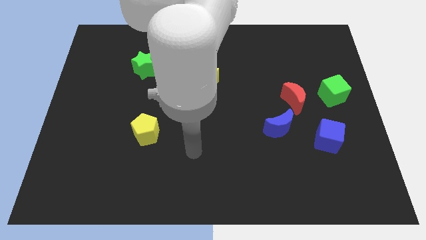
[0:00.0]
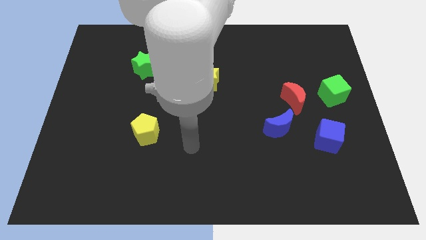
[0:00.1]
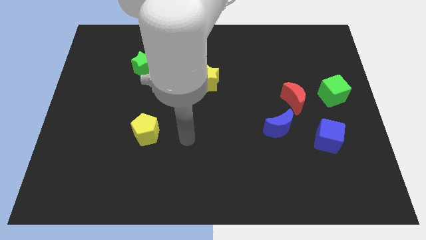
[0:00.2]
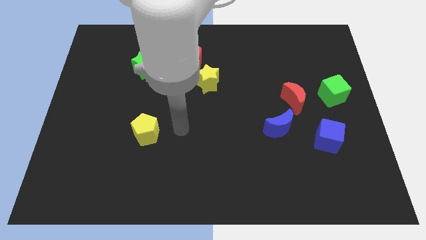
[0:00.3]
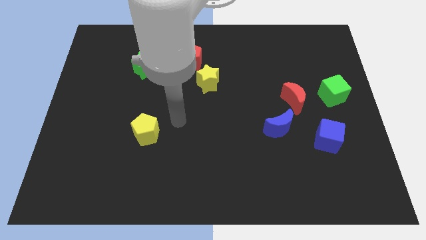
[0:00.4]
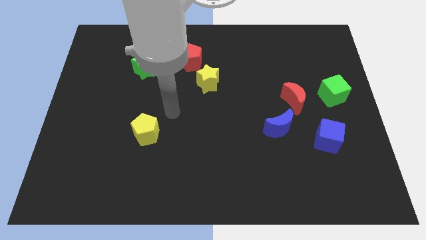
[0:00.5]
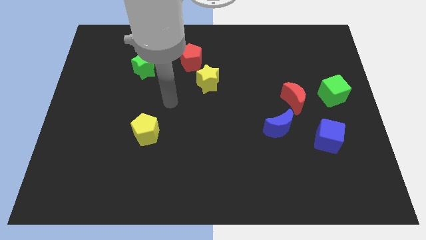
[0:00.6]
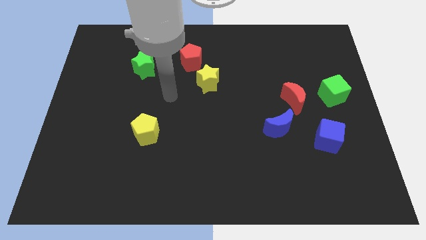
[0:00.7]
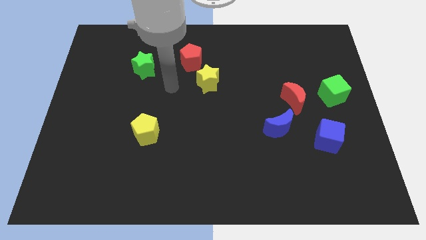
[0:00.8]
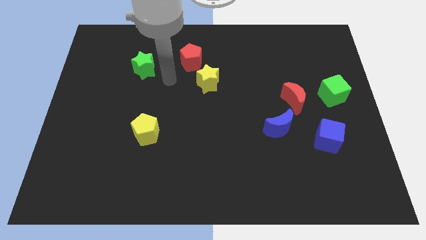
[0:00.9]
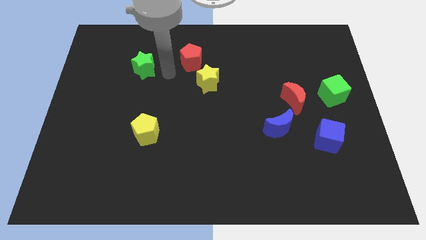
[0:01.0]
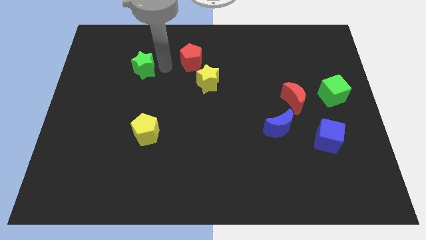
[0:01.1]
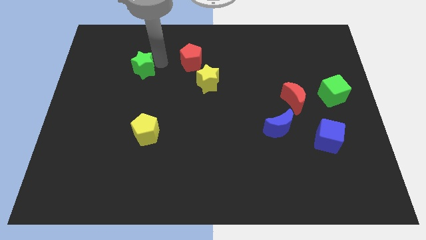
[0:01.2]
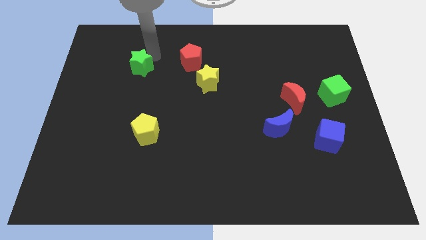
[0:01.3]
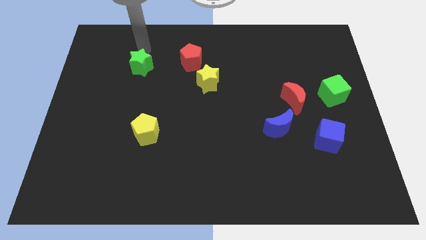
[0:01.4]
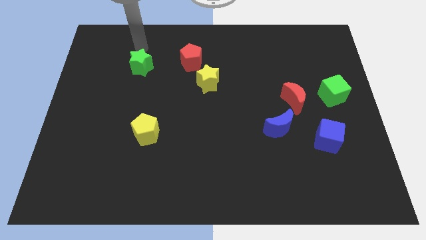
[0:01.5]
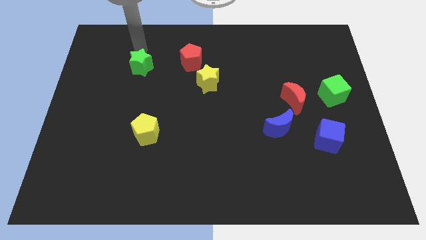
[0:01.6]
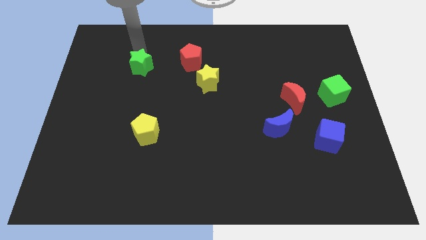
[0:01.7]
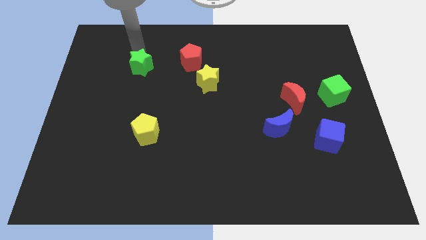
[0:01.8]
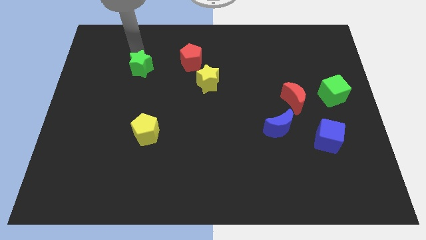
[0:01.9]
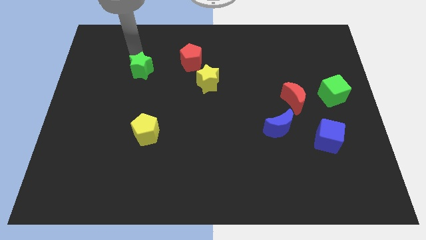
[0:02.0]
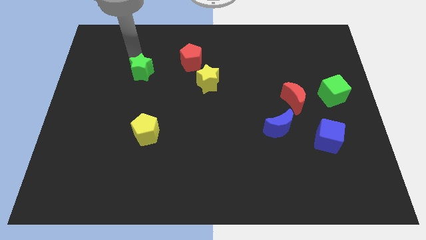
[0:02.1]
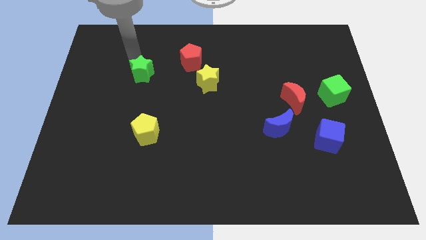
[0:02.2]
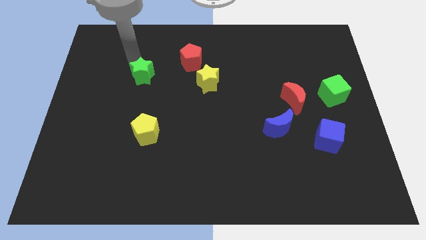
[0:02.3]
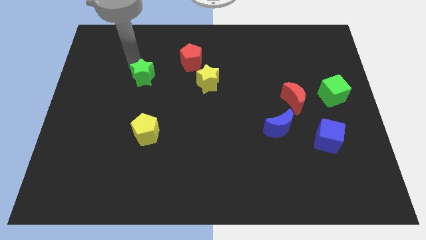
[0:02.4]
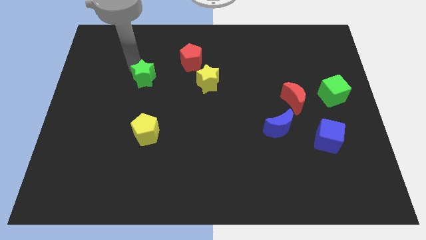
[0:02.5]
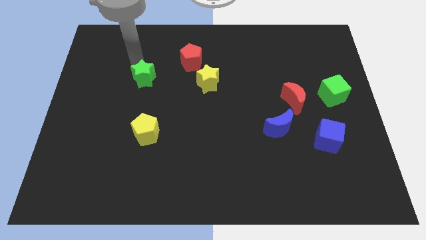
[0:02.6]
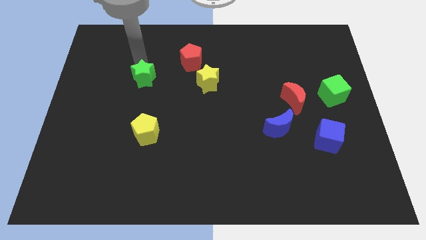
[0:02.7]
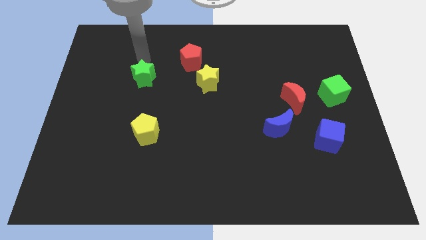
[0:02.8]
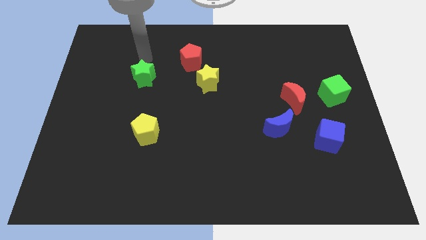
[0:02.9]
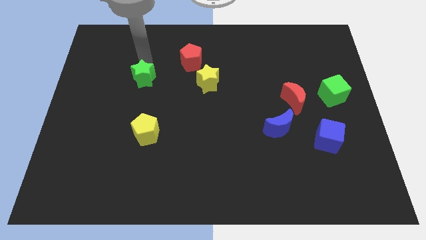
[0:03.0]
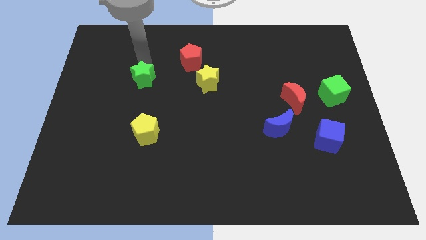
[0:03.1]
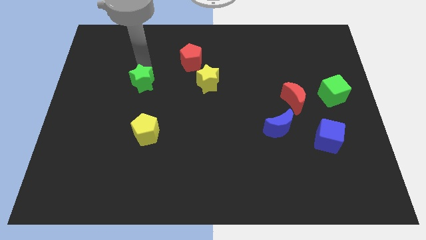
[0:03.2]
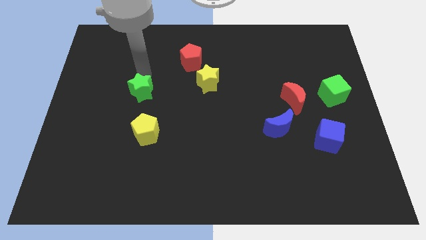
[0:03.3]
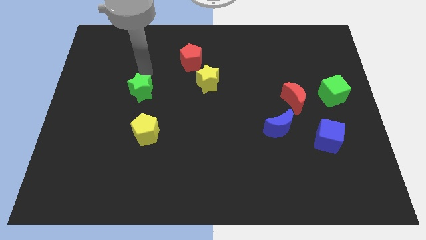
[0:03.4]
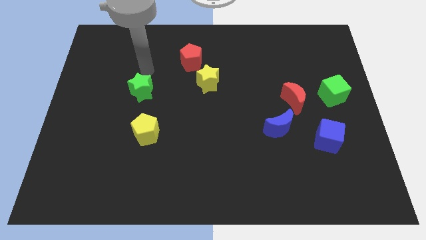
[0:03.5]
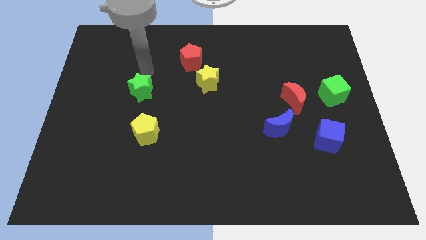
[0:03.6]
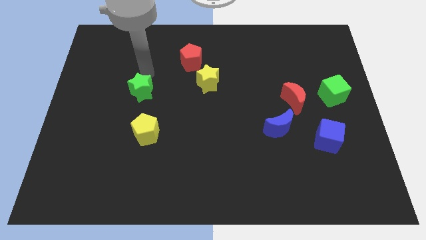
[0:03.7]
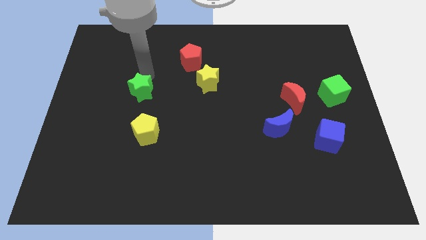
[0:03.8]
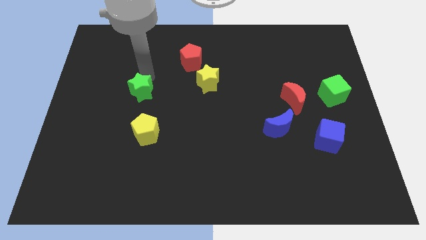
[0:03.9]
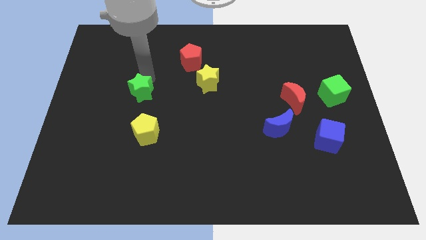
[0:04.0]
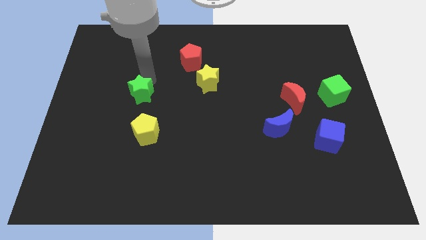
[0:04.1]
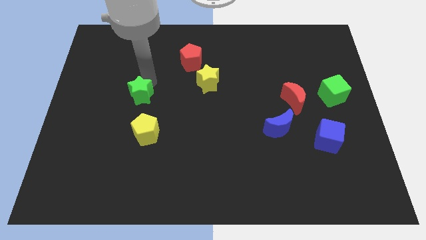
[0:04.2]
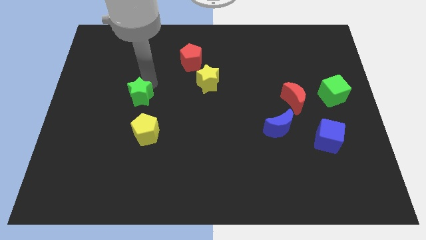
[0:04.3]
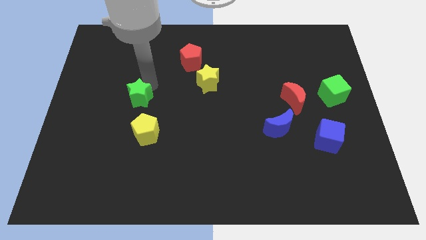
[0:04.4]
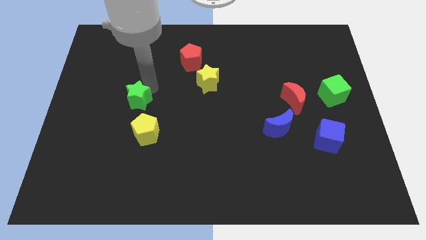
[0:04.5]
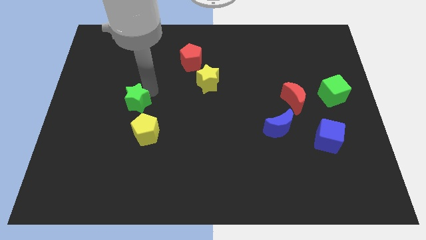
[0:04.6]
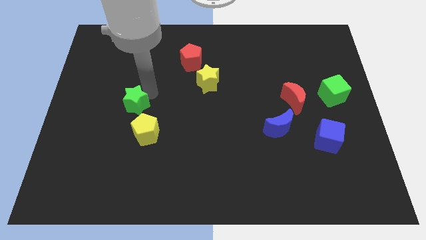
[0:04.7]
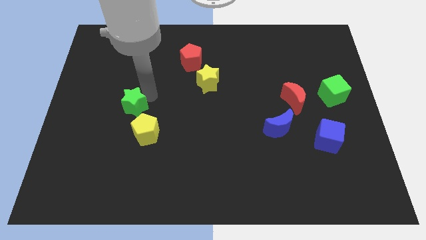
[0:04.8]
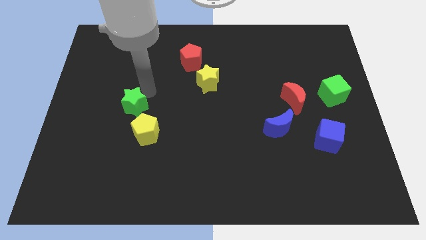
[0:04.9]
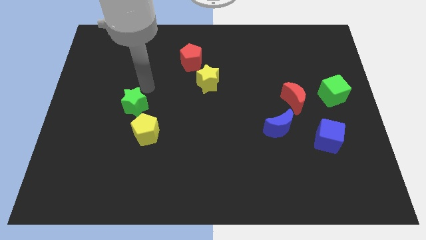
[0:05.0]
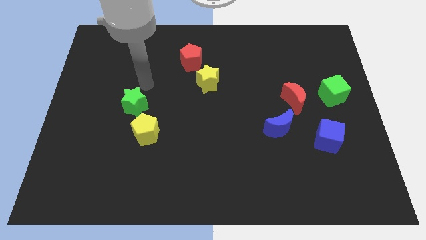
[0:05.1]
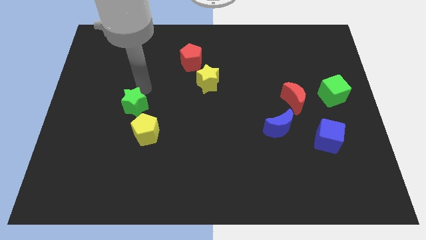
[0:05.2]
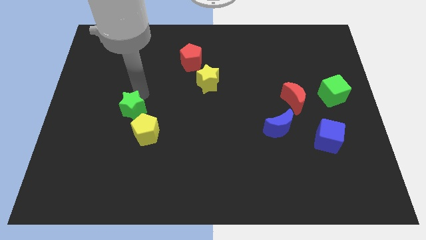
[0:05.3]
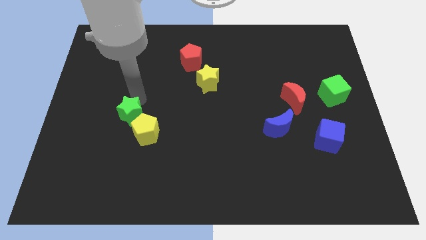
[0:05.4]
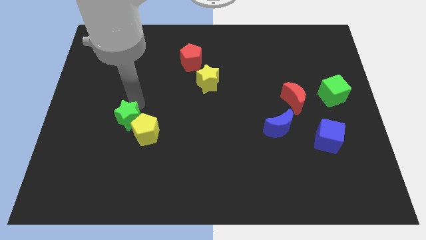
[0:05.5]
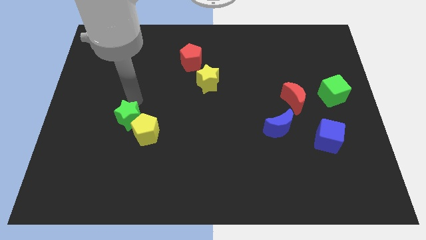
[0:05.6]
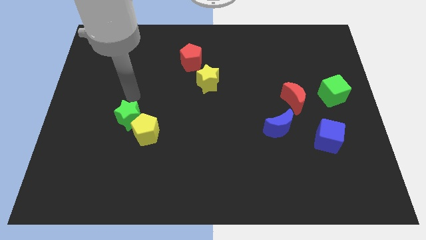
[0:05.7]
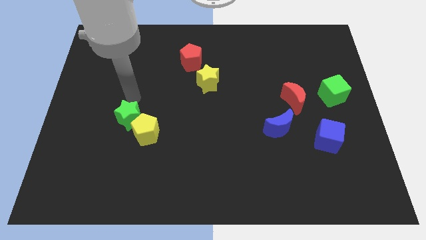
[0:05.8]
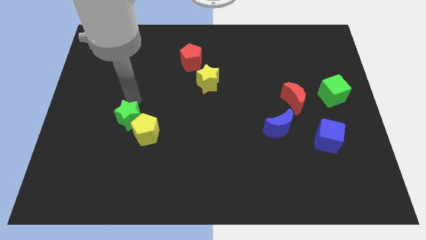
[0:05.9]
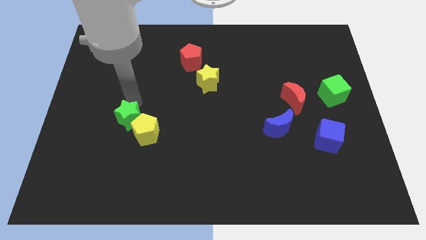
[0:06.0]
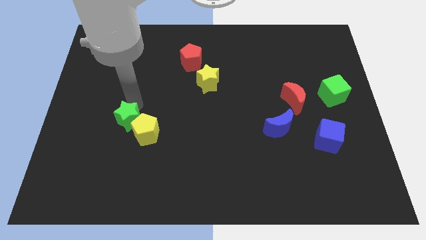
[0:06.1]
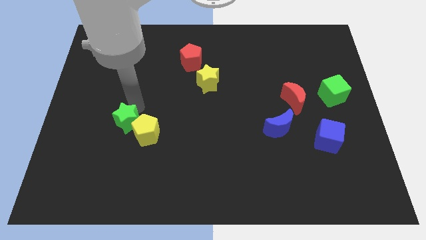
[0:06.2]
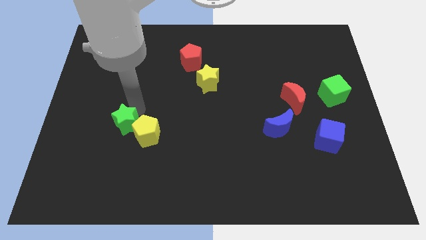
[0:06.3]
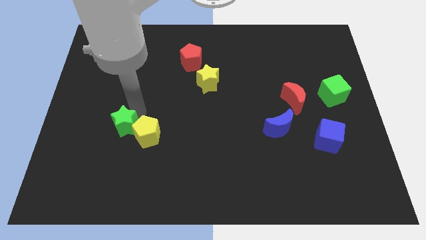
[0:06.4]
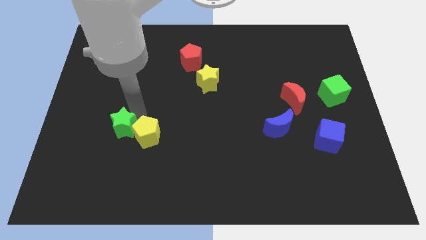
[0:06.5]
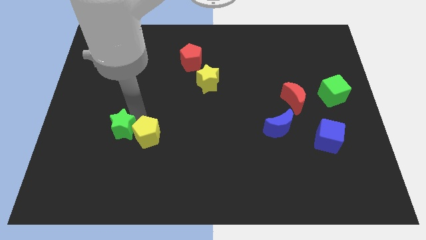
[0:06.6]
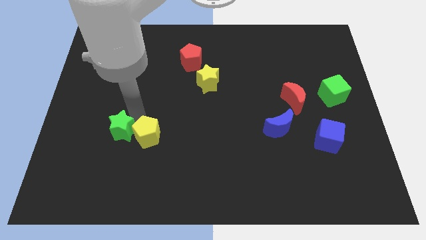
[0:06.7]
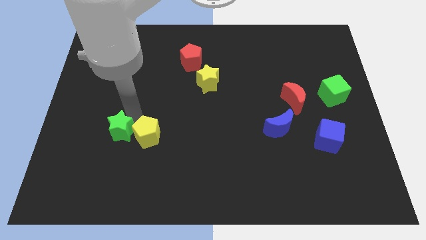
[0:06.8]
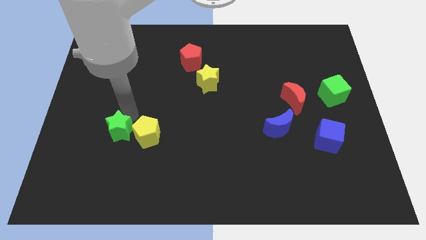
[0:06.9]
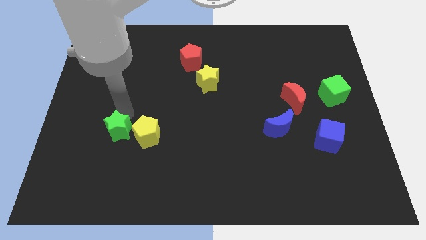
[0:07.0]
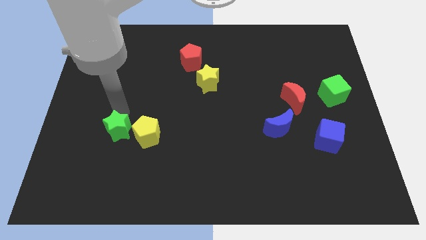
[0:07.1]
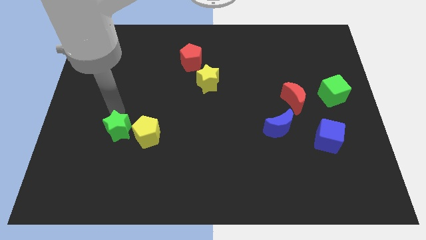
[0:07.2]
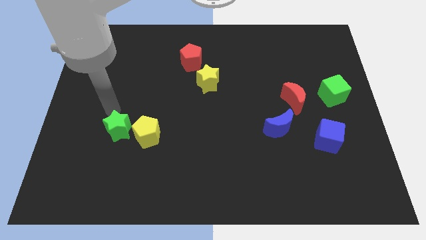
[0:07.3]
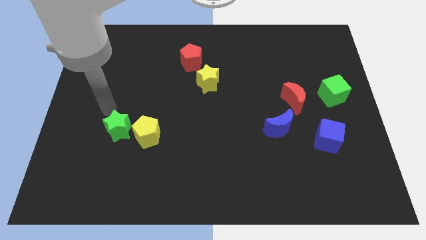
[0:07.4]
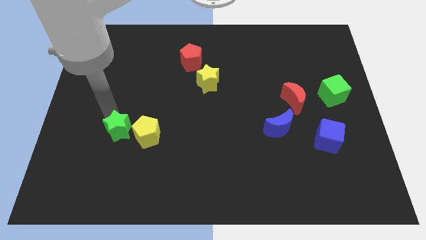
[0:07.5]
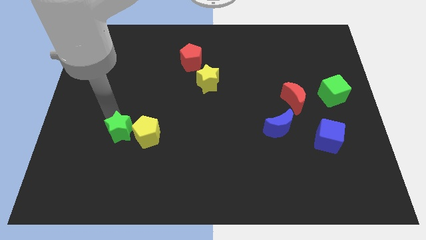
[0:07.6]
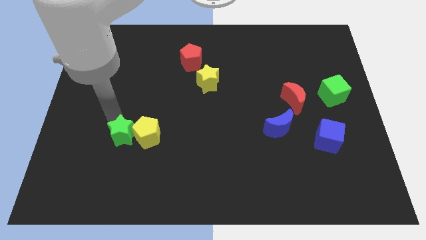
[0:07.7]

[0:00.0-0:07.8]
slide the green star downwards

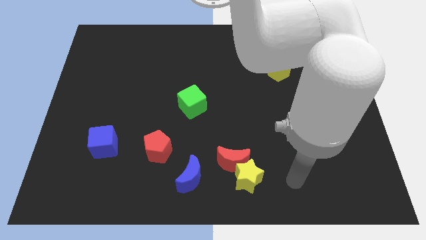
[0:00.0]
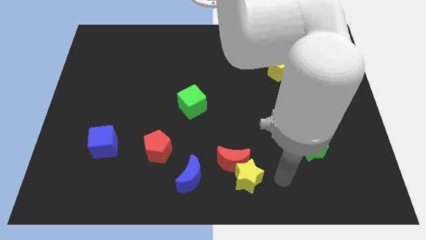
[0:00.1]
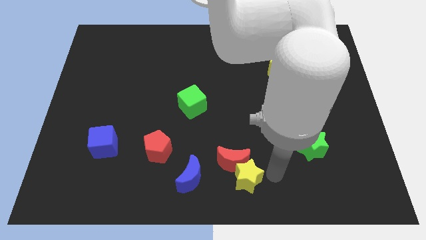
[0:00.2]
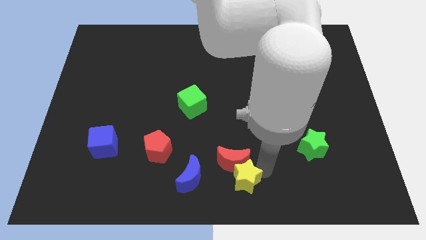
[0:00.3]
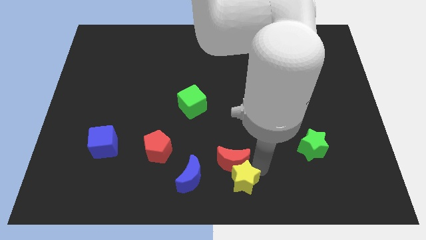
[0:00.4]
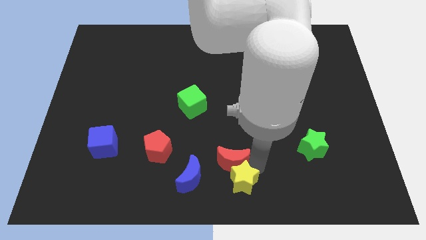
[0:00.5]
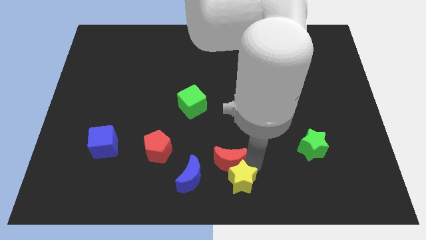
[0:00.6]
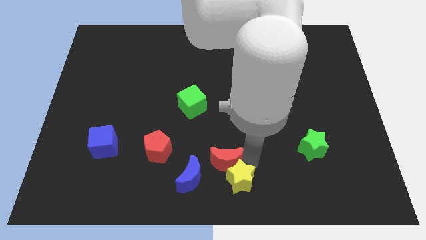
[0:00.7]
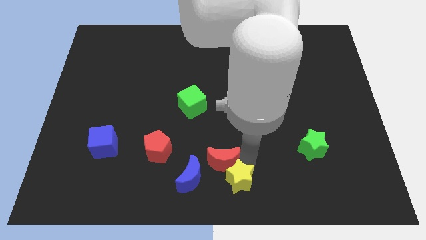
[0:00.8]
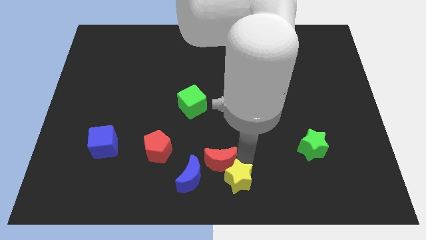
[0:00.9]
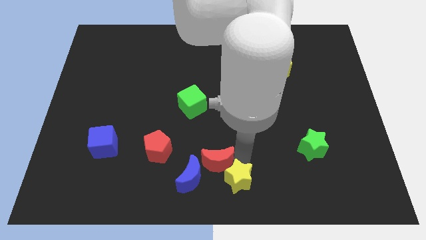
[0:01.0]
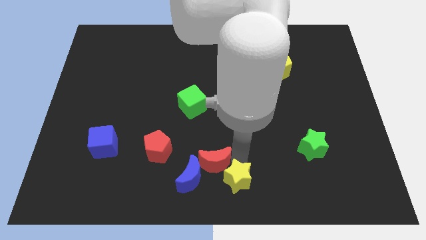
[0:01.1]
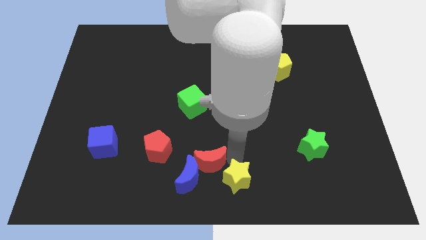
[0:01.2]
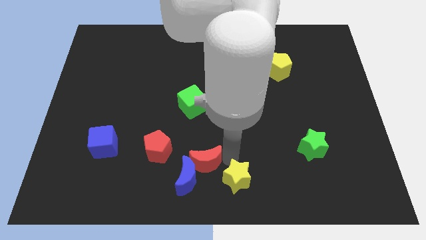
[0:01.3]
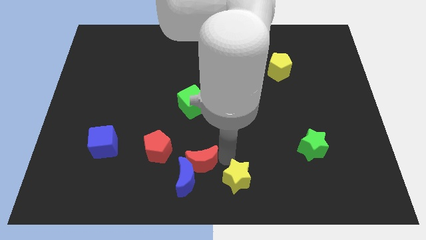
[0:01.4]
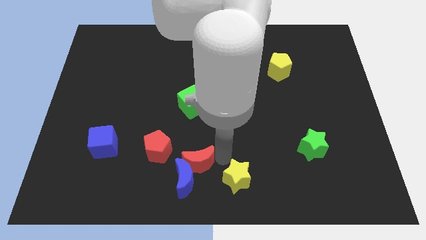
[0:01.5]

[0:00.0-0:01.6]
move the red moon a little bit to the left
